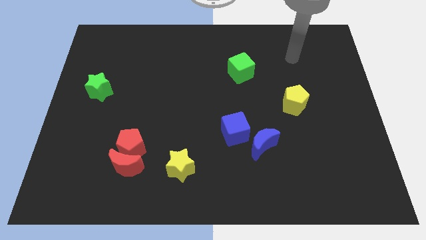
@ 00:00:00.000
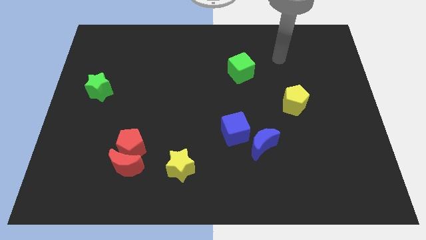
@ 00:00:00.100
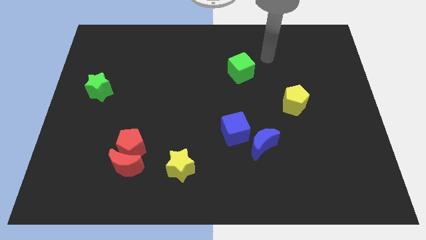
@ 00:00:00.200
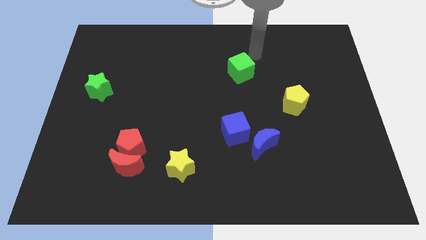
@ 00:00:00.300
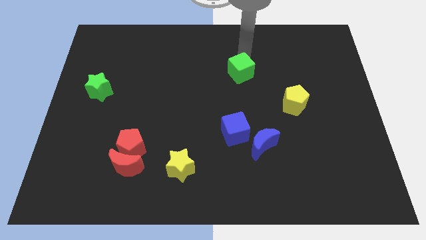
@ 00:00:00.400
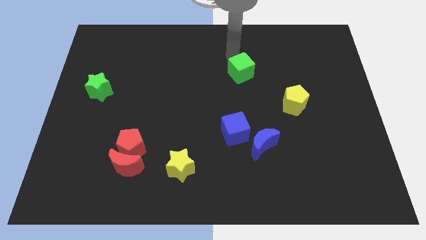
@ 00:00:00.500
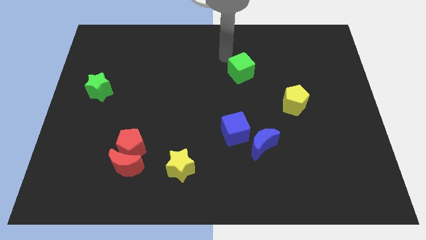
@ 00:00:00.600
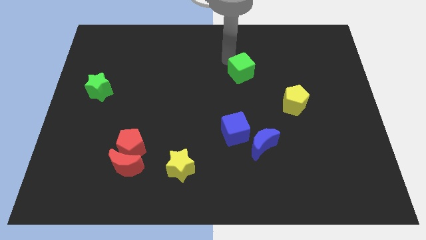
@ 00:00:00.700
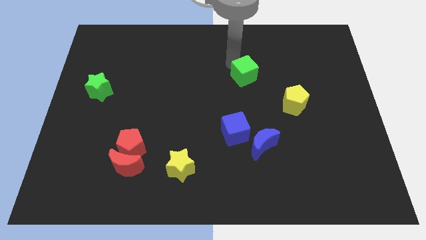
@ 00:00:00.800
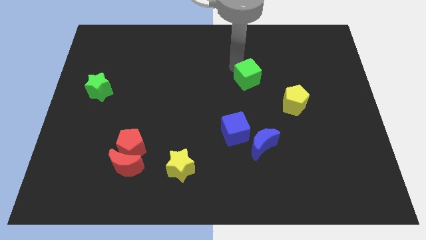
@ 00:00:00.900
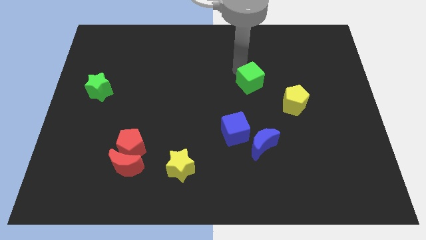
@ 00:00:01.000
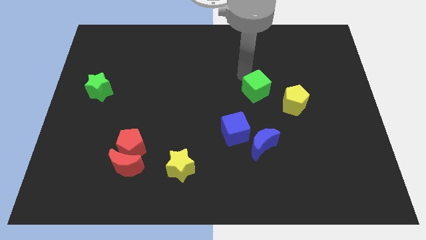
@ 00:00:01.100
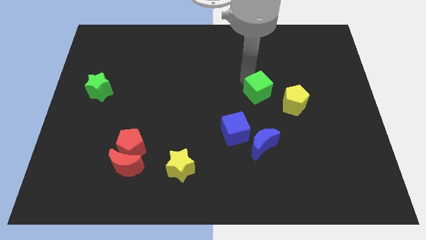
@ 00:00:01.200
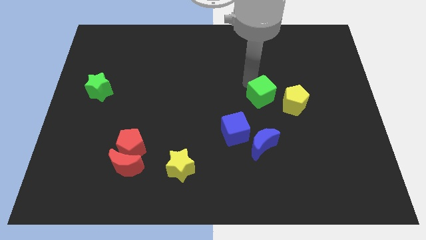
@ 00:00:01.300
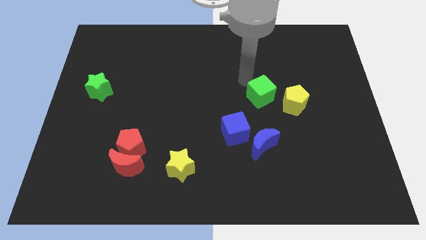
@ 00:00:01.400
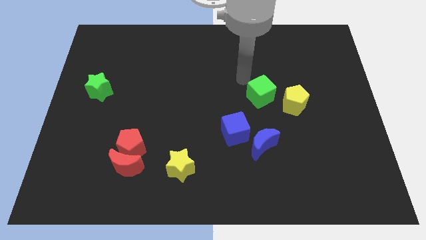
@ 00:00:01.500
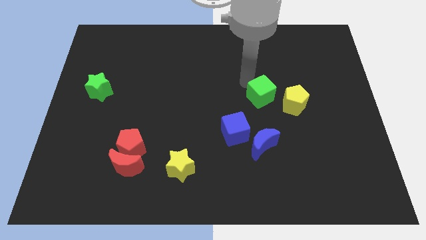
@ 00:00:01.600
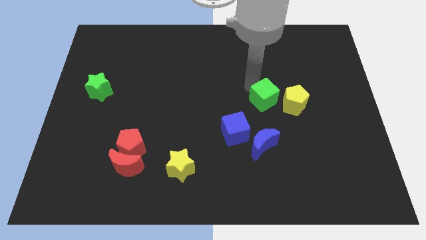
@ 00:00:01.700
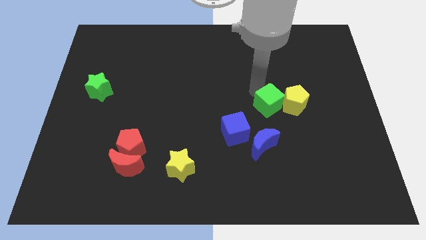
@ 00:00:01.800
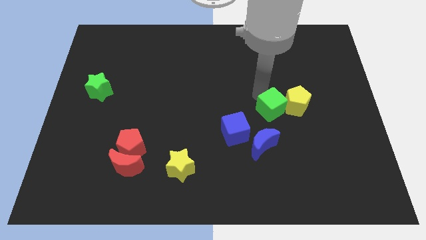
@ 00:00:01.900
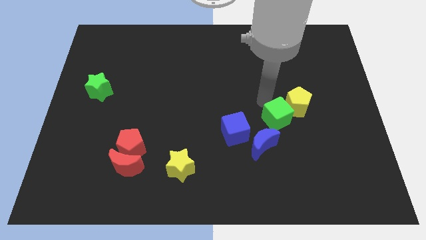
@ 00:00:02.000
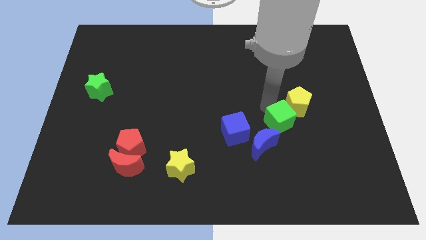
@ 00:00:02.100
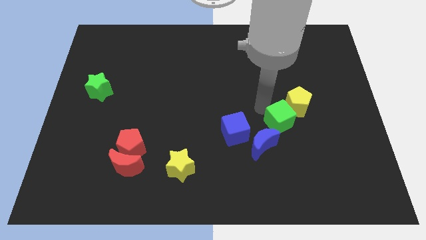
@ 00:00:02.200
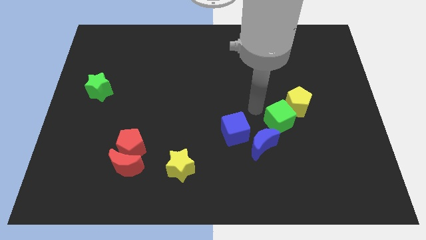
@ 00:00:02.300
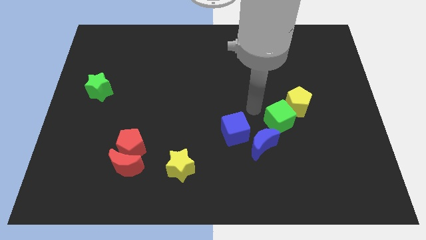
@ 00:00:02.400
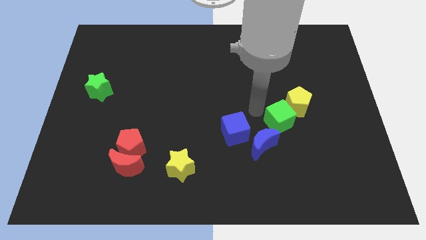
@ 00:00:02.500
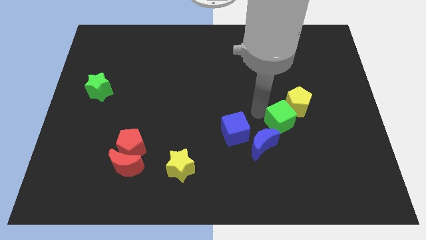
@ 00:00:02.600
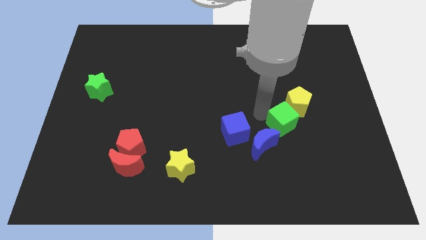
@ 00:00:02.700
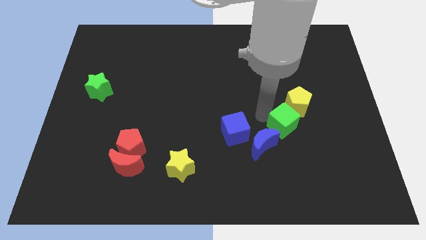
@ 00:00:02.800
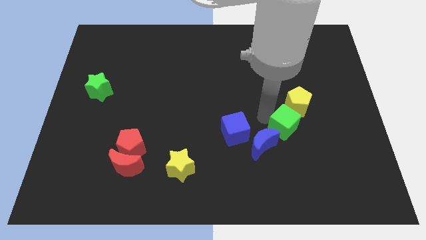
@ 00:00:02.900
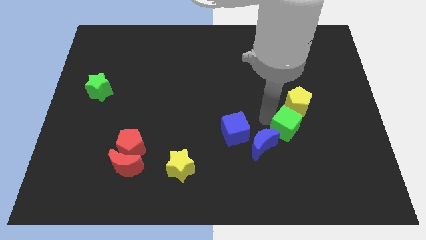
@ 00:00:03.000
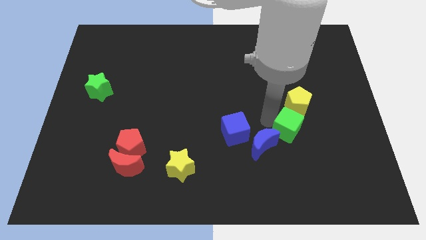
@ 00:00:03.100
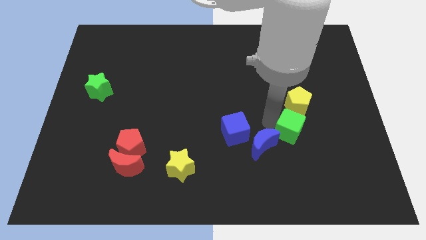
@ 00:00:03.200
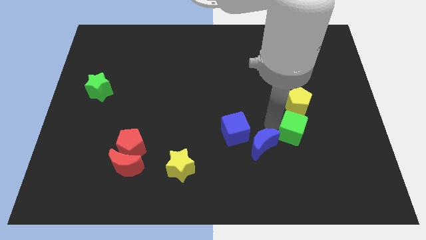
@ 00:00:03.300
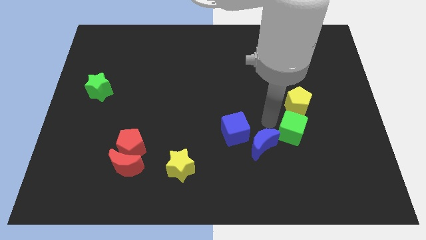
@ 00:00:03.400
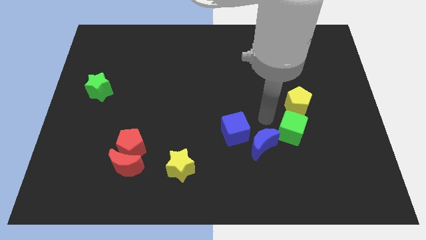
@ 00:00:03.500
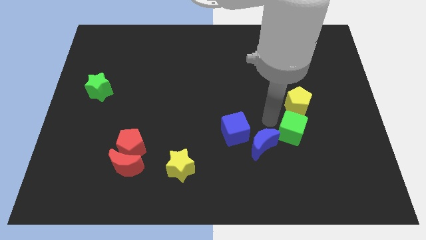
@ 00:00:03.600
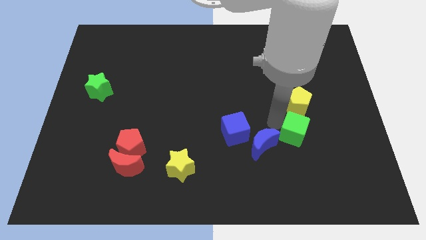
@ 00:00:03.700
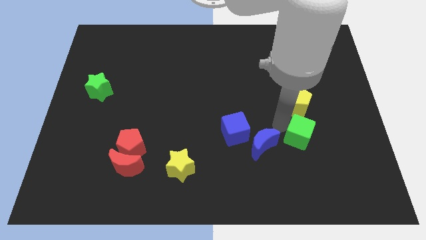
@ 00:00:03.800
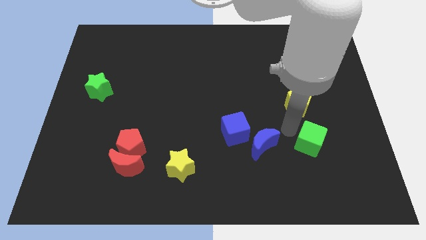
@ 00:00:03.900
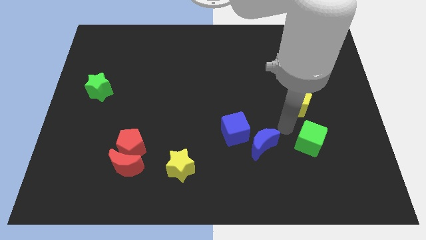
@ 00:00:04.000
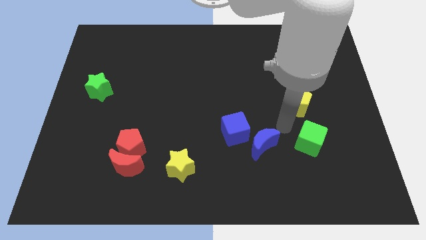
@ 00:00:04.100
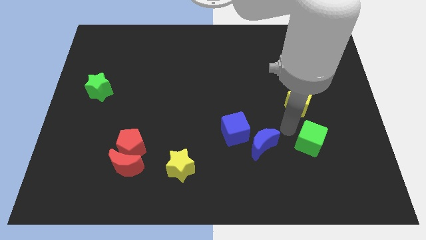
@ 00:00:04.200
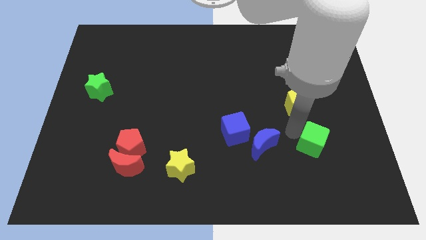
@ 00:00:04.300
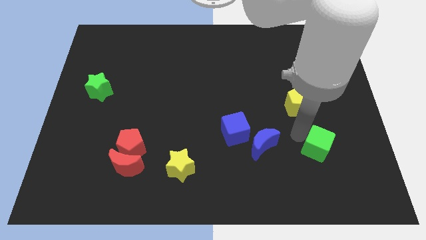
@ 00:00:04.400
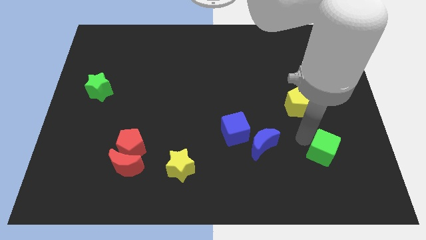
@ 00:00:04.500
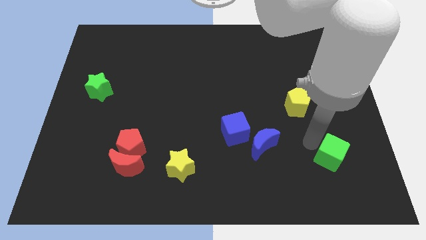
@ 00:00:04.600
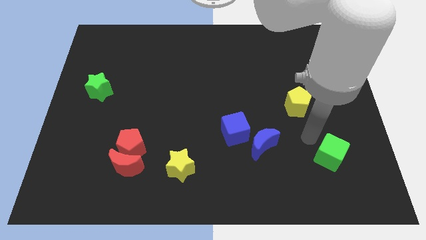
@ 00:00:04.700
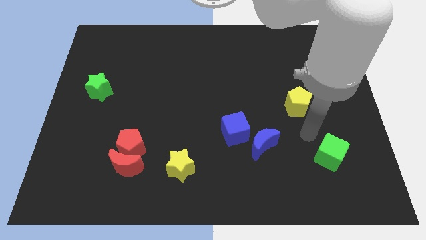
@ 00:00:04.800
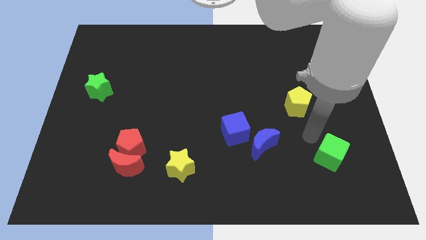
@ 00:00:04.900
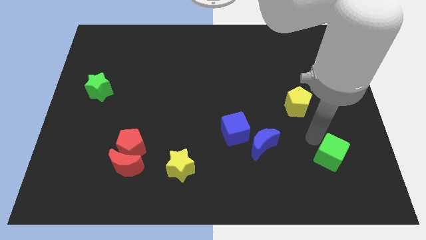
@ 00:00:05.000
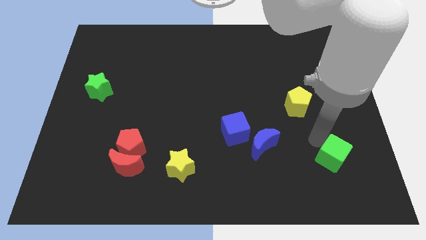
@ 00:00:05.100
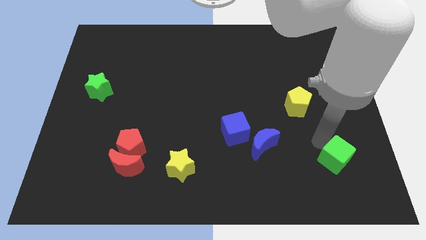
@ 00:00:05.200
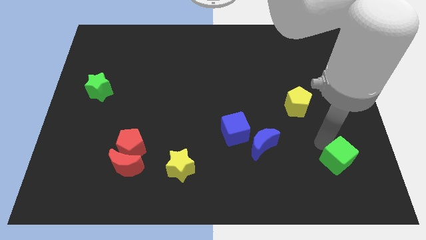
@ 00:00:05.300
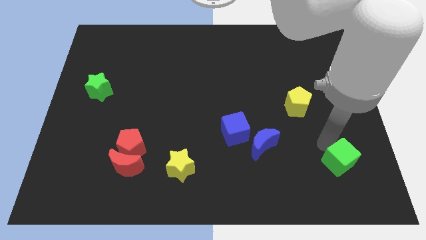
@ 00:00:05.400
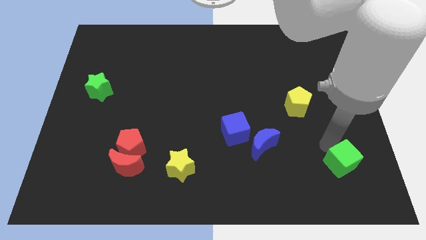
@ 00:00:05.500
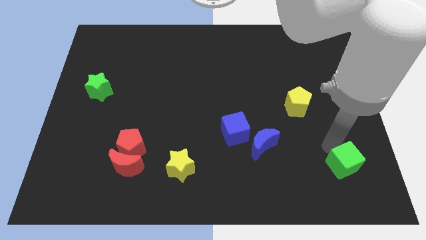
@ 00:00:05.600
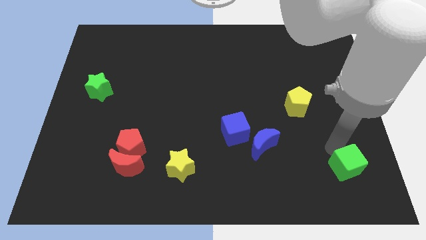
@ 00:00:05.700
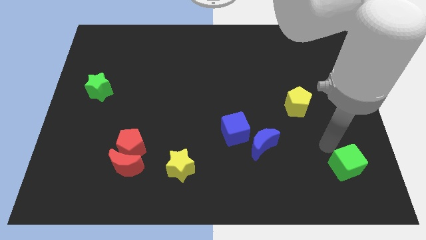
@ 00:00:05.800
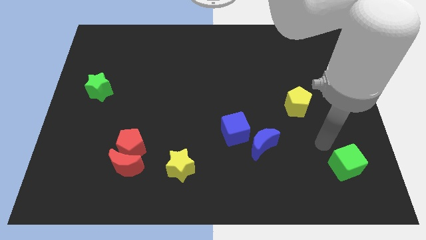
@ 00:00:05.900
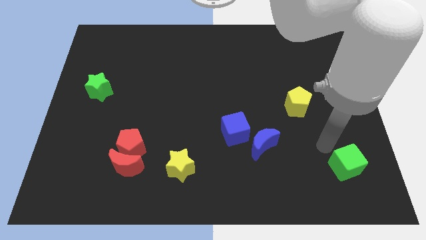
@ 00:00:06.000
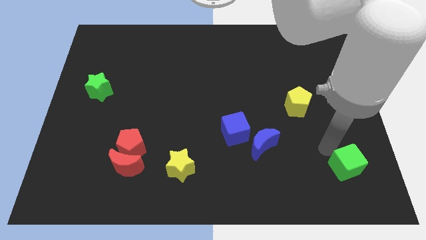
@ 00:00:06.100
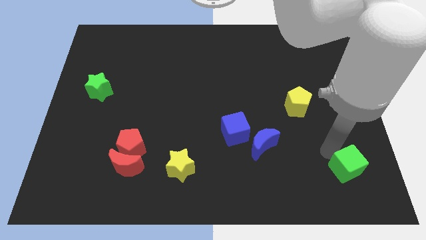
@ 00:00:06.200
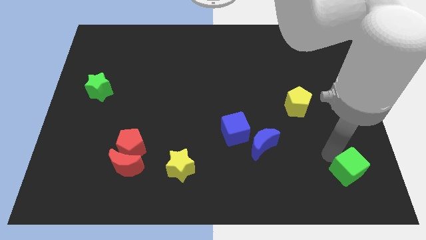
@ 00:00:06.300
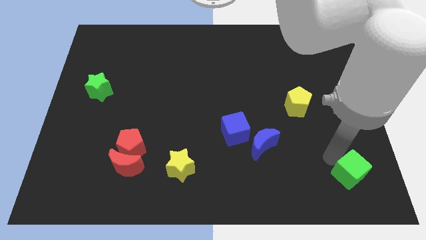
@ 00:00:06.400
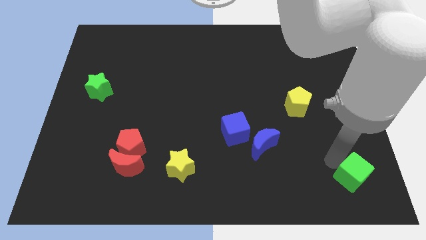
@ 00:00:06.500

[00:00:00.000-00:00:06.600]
push the green cube to the bottom right
